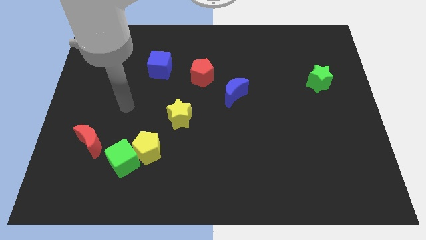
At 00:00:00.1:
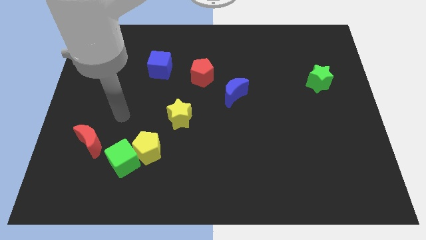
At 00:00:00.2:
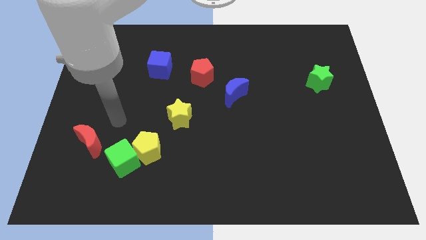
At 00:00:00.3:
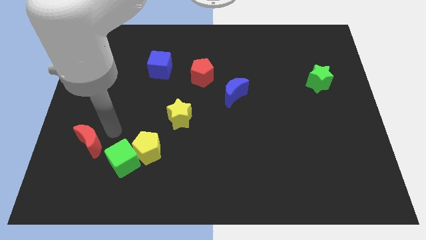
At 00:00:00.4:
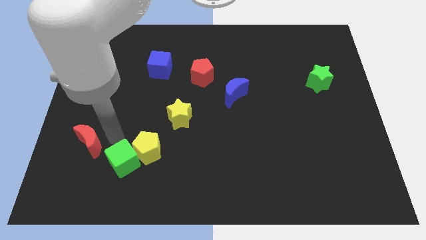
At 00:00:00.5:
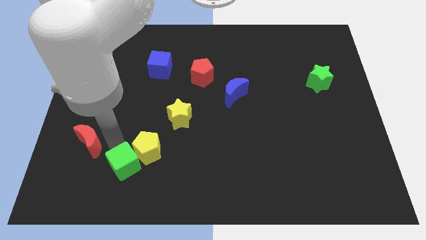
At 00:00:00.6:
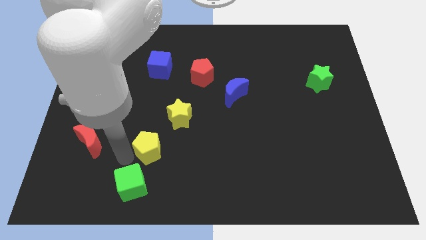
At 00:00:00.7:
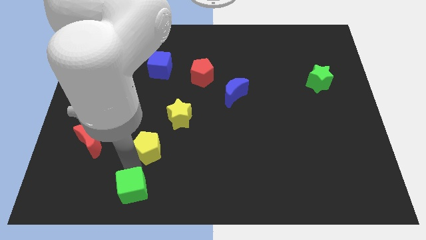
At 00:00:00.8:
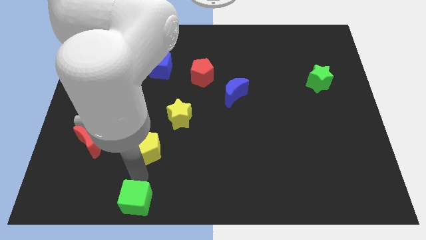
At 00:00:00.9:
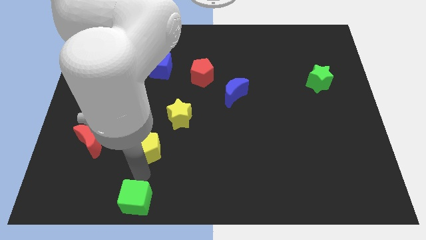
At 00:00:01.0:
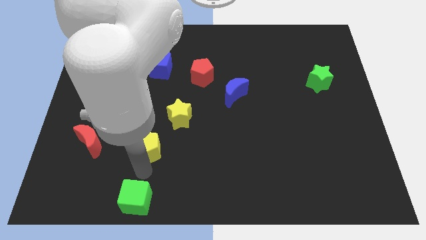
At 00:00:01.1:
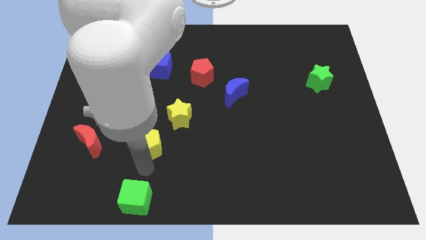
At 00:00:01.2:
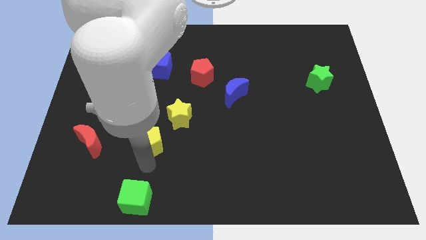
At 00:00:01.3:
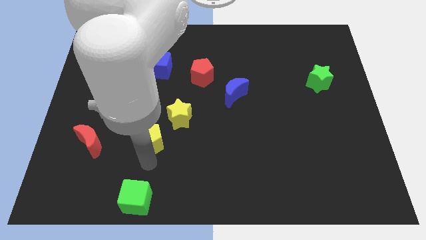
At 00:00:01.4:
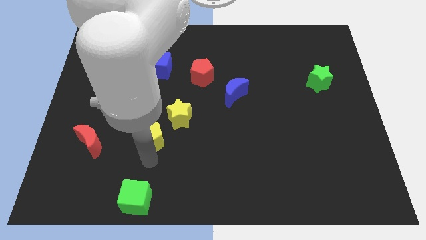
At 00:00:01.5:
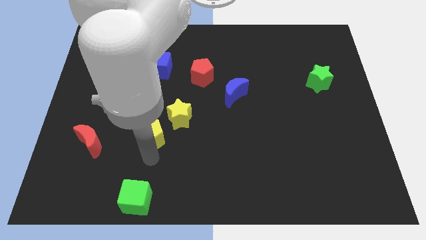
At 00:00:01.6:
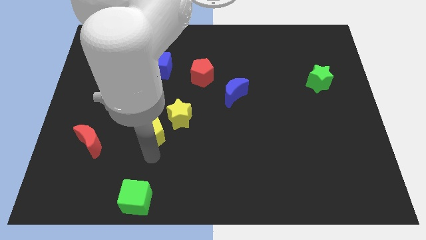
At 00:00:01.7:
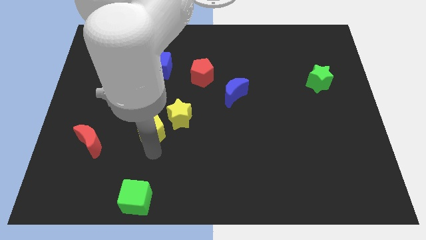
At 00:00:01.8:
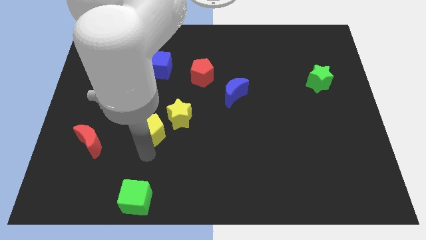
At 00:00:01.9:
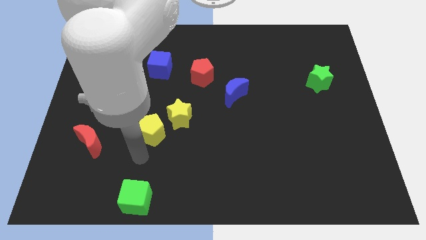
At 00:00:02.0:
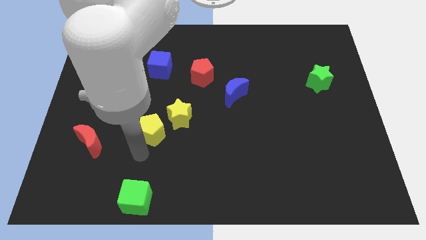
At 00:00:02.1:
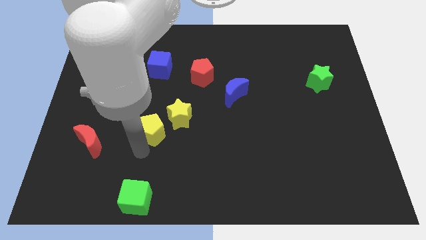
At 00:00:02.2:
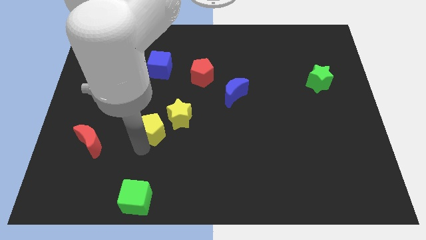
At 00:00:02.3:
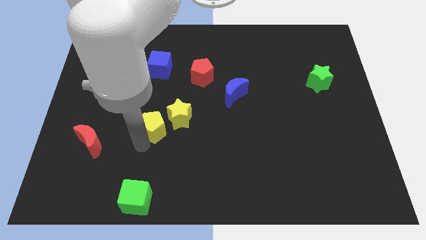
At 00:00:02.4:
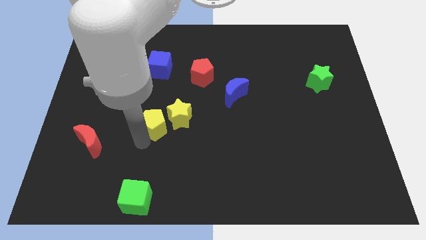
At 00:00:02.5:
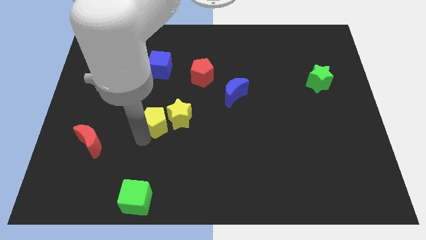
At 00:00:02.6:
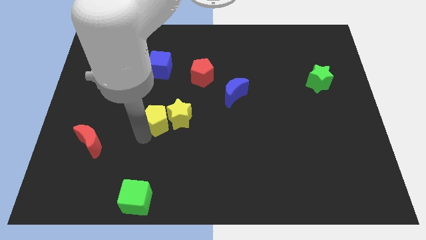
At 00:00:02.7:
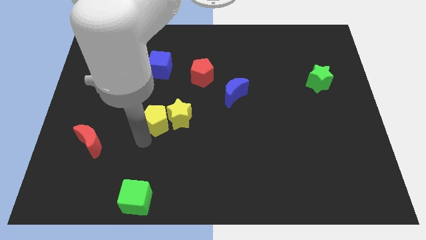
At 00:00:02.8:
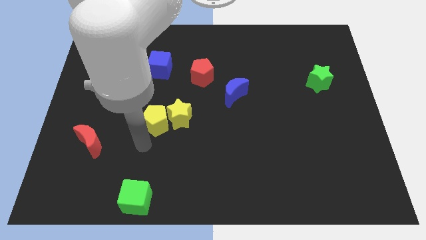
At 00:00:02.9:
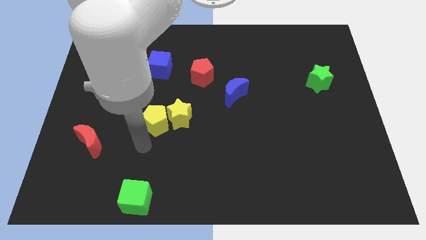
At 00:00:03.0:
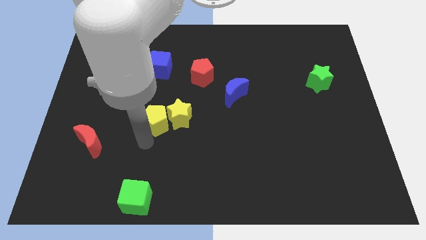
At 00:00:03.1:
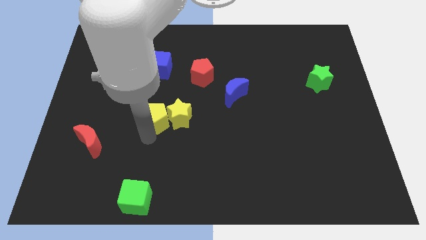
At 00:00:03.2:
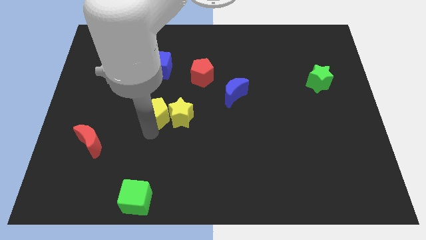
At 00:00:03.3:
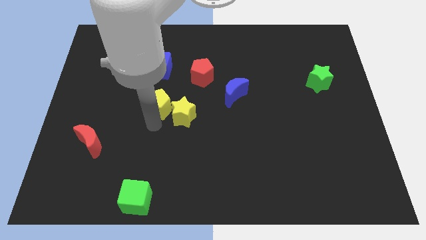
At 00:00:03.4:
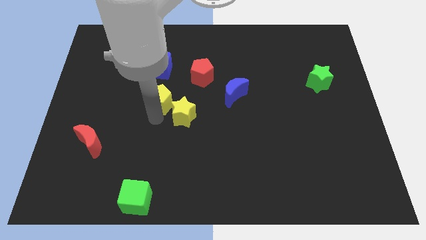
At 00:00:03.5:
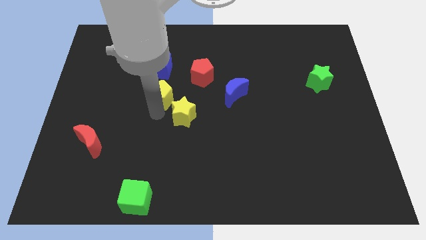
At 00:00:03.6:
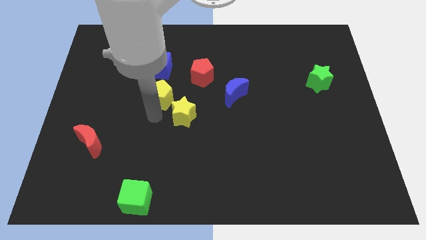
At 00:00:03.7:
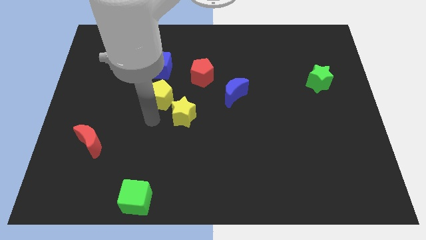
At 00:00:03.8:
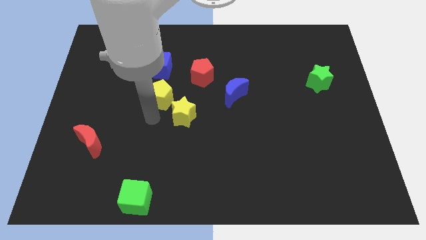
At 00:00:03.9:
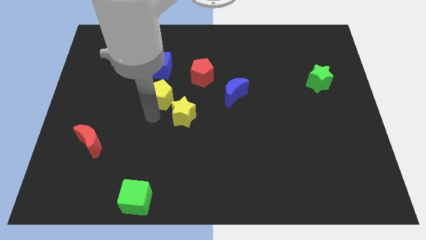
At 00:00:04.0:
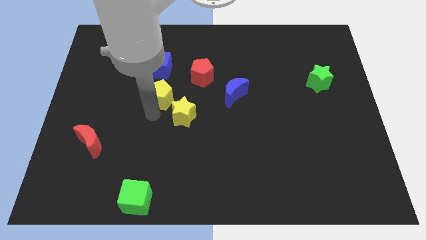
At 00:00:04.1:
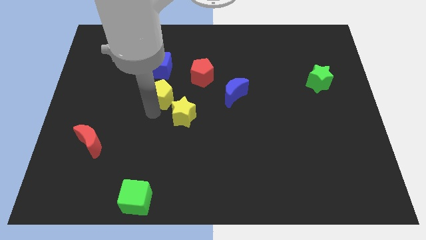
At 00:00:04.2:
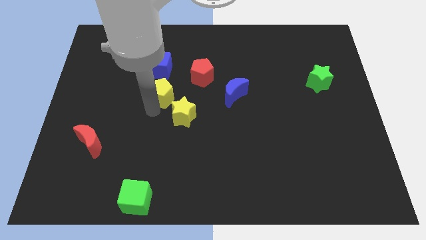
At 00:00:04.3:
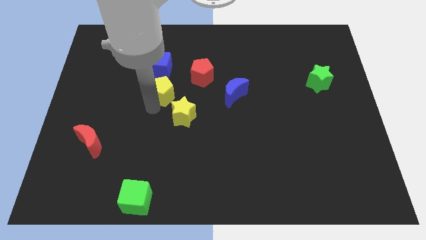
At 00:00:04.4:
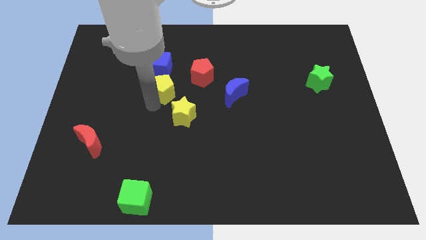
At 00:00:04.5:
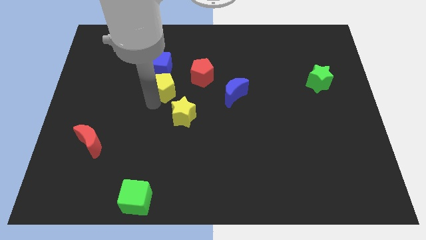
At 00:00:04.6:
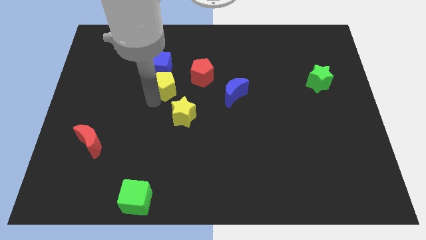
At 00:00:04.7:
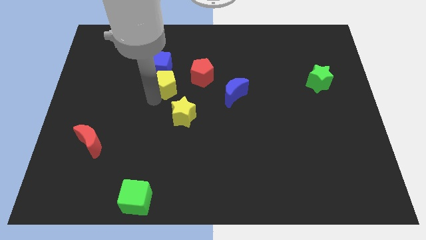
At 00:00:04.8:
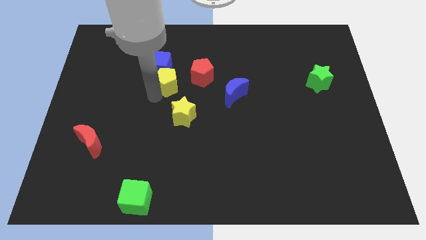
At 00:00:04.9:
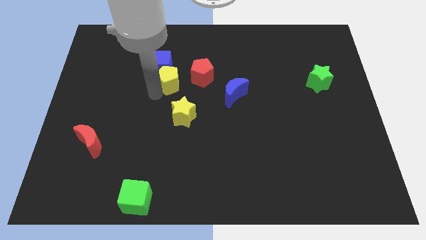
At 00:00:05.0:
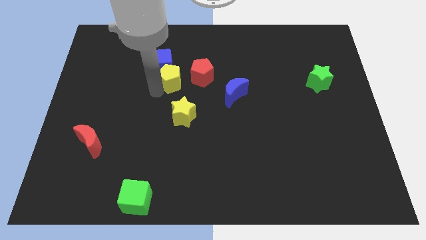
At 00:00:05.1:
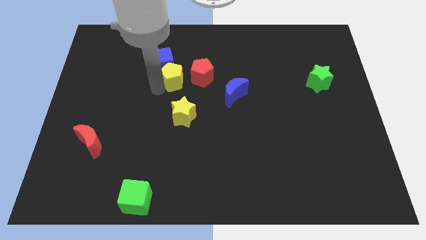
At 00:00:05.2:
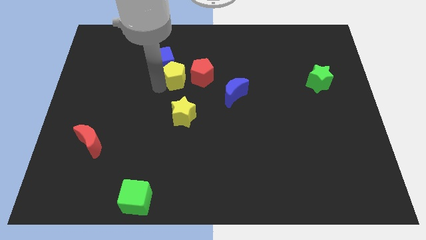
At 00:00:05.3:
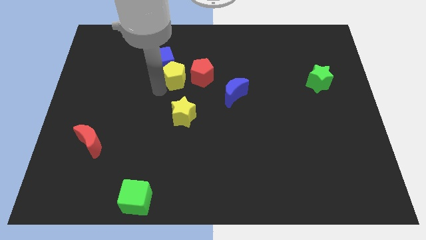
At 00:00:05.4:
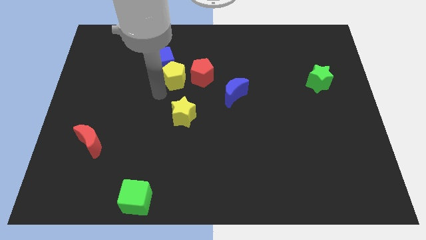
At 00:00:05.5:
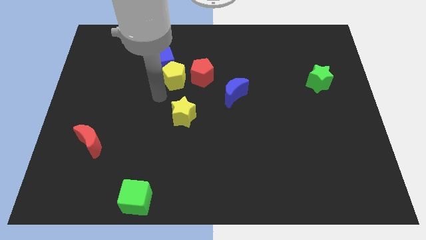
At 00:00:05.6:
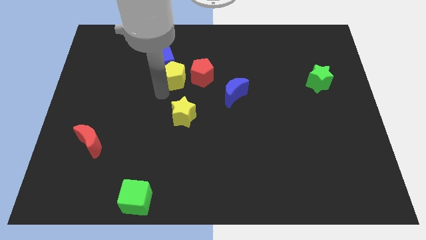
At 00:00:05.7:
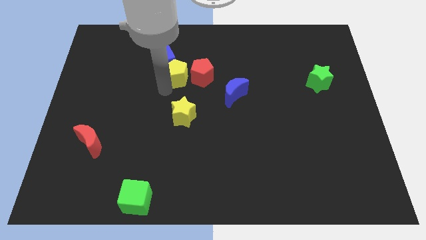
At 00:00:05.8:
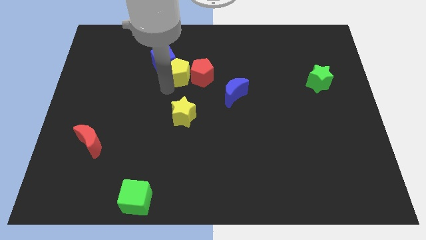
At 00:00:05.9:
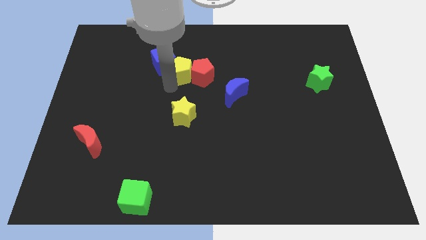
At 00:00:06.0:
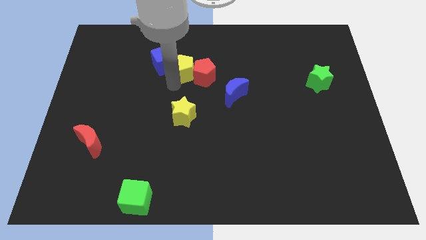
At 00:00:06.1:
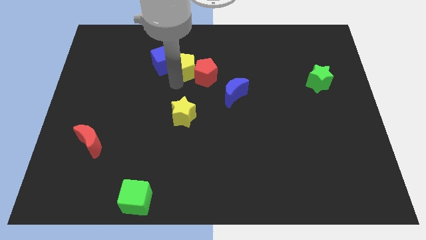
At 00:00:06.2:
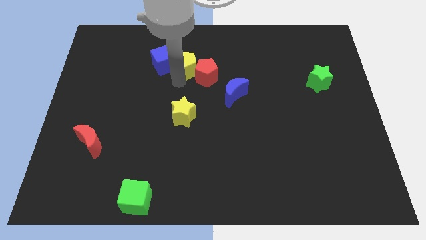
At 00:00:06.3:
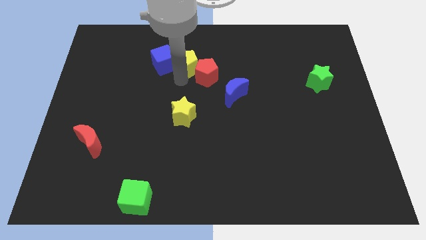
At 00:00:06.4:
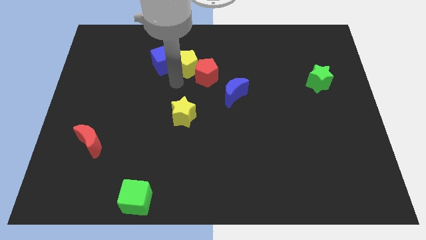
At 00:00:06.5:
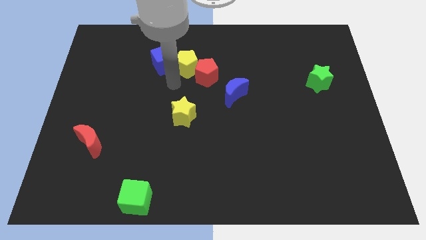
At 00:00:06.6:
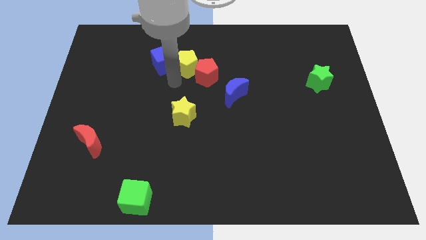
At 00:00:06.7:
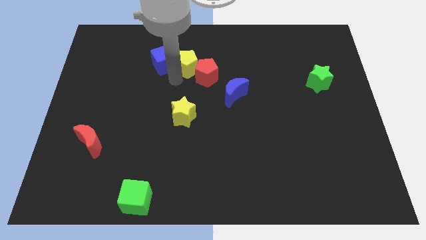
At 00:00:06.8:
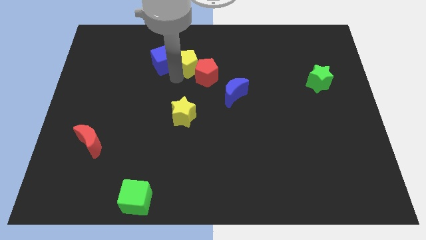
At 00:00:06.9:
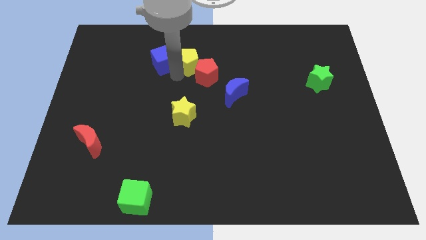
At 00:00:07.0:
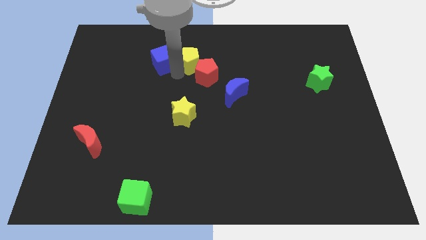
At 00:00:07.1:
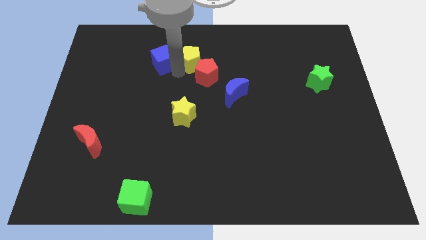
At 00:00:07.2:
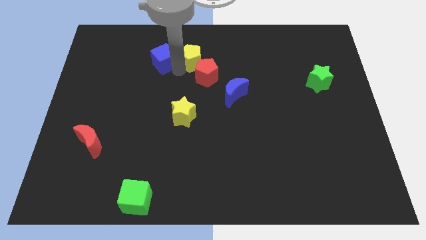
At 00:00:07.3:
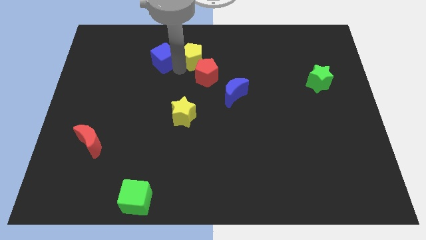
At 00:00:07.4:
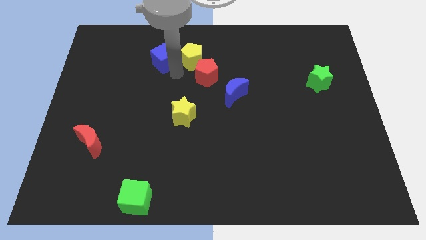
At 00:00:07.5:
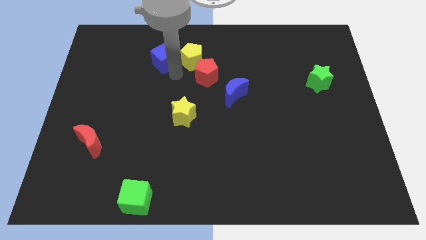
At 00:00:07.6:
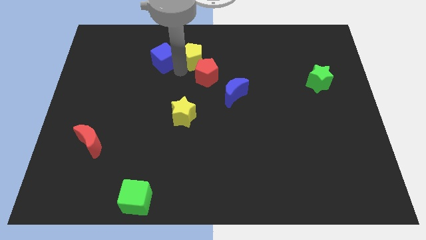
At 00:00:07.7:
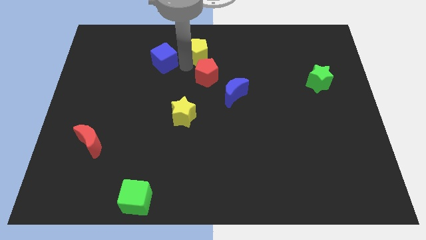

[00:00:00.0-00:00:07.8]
put the yellow pentagon to the top
